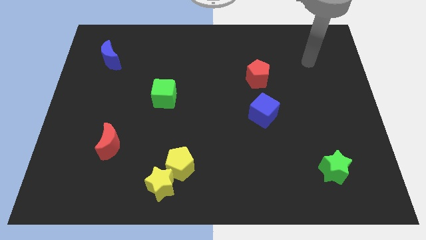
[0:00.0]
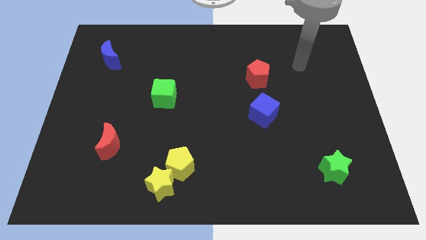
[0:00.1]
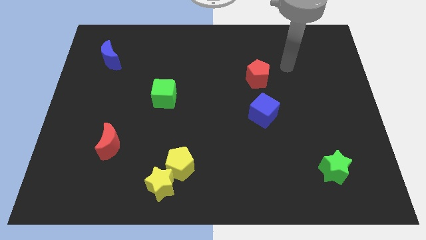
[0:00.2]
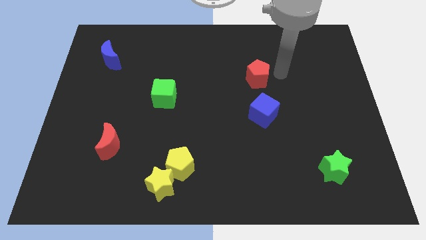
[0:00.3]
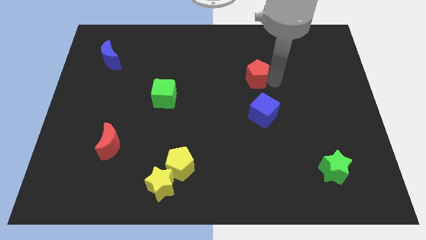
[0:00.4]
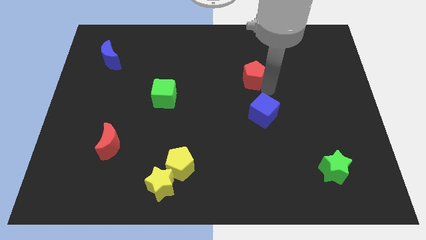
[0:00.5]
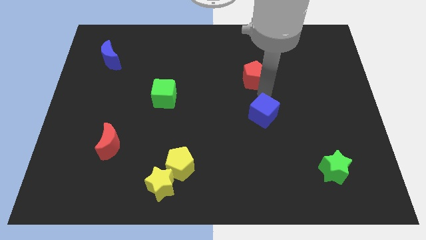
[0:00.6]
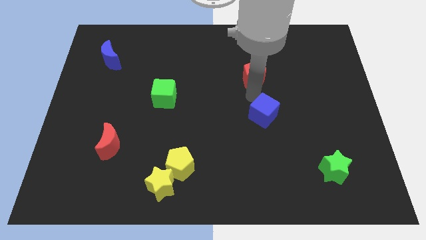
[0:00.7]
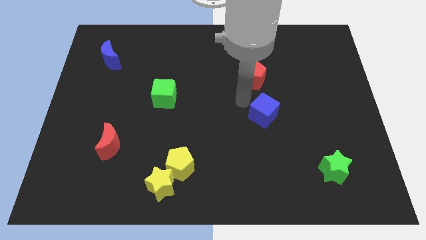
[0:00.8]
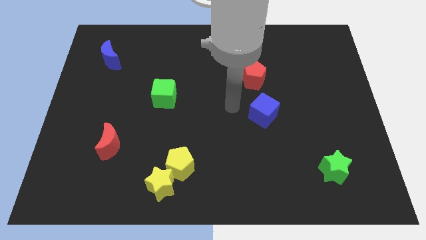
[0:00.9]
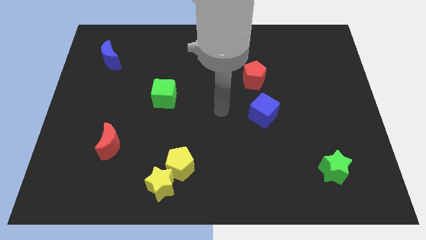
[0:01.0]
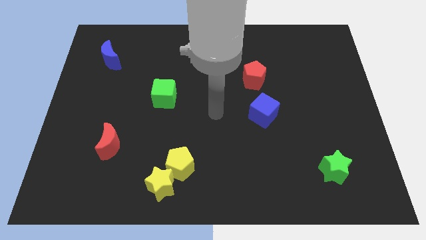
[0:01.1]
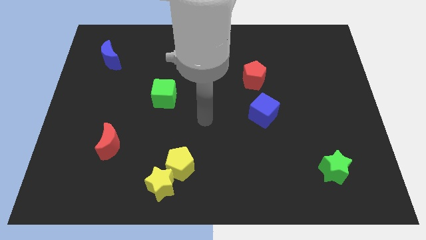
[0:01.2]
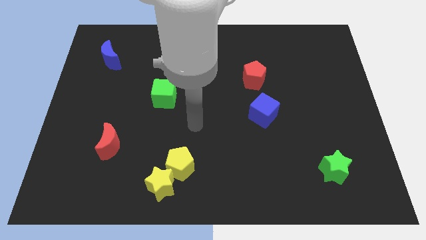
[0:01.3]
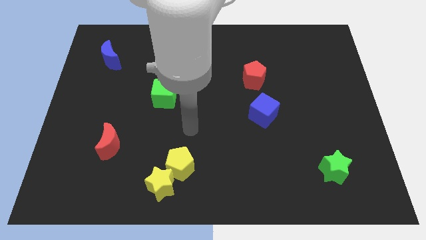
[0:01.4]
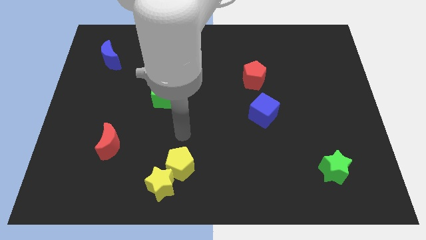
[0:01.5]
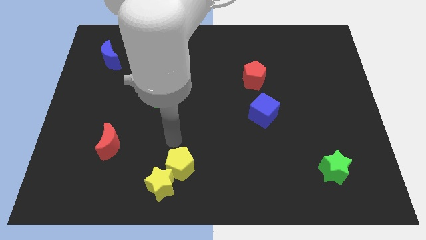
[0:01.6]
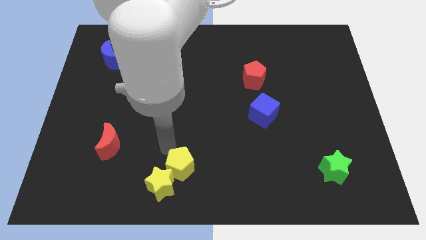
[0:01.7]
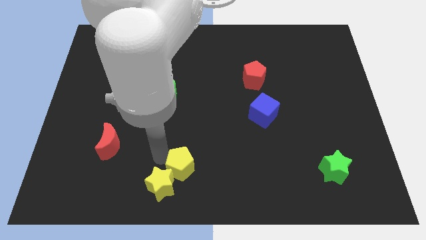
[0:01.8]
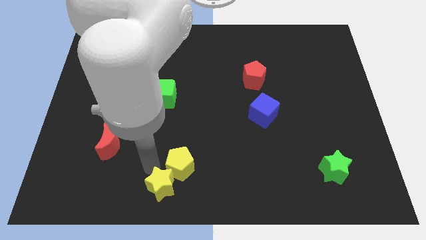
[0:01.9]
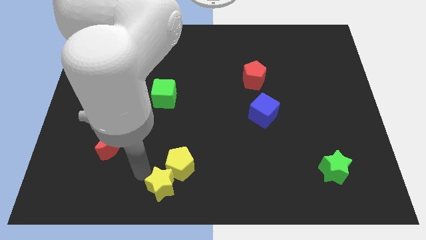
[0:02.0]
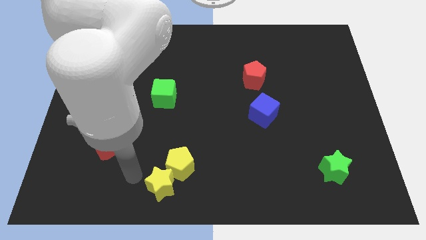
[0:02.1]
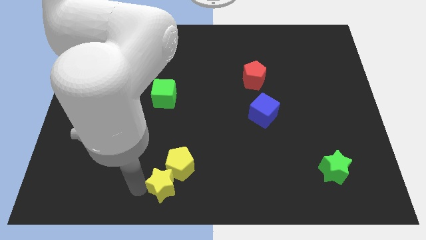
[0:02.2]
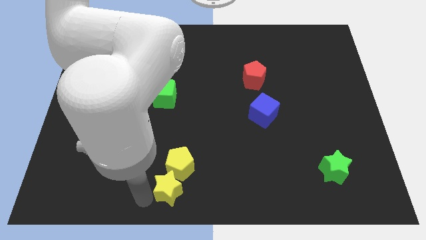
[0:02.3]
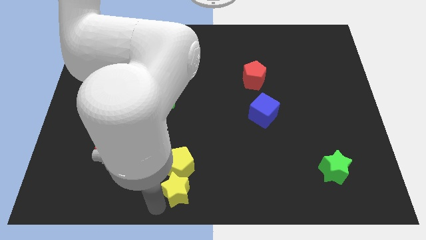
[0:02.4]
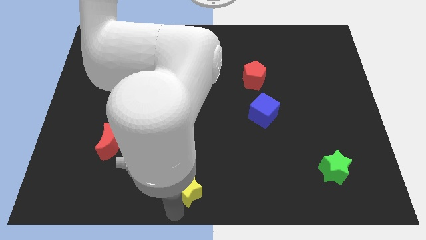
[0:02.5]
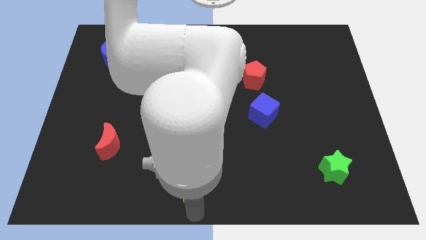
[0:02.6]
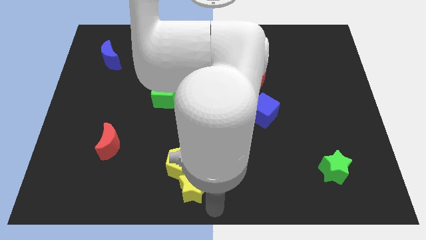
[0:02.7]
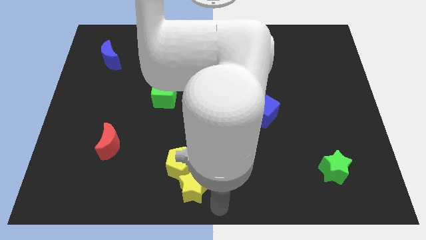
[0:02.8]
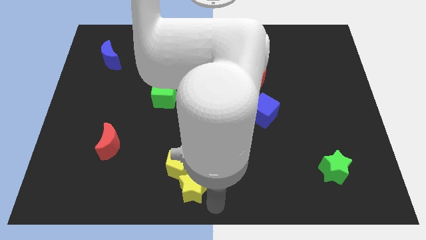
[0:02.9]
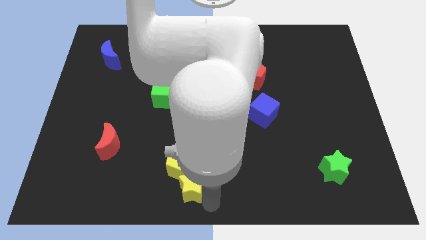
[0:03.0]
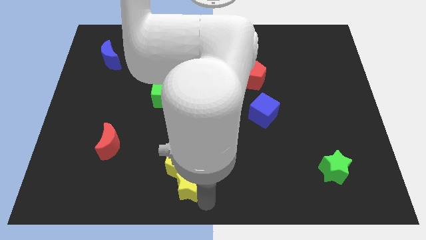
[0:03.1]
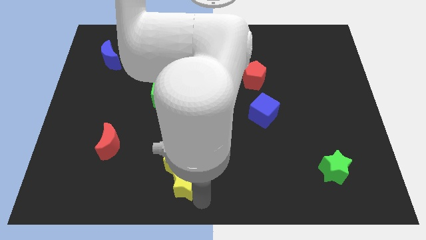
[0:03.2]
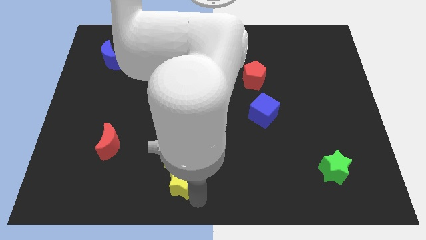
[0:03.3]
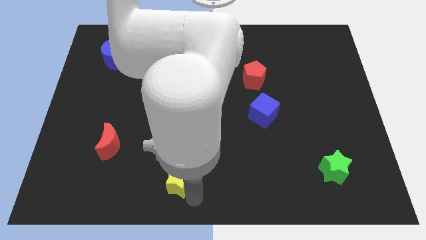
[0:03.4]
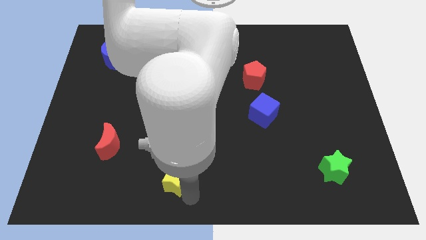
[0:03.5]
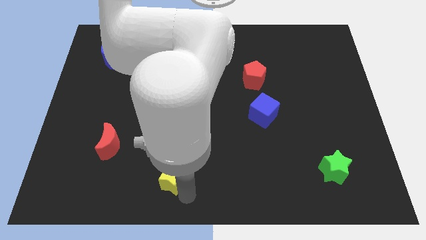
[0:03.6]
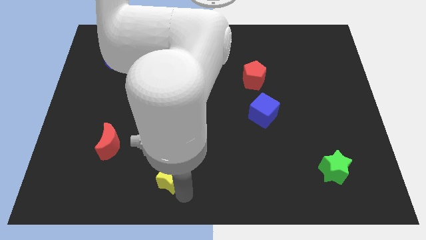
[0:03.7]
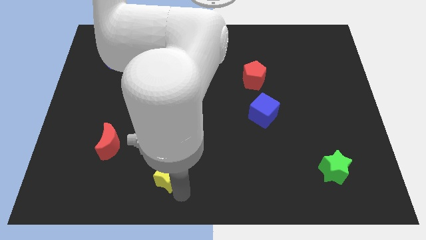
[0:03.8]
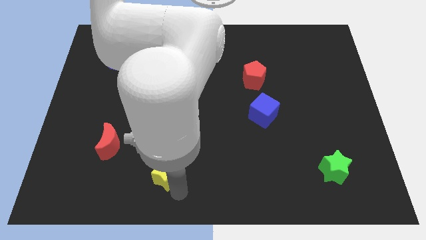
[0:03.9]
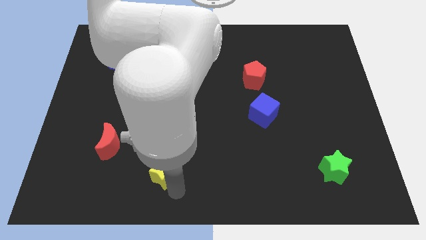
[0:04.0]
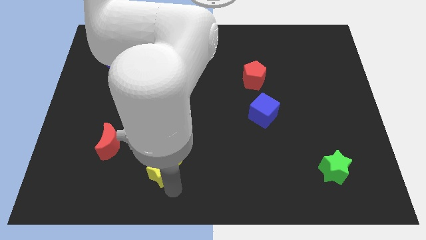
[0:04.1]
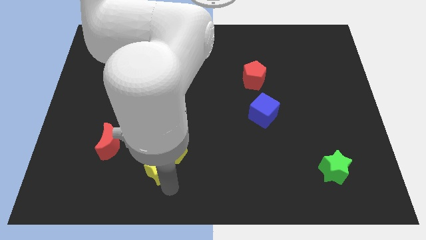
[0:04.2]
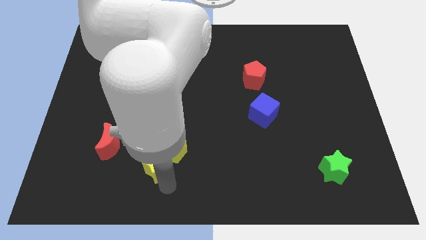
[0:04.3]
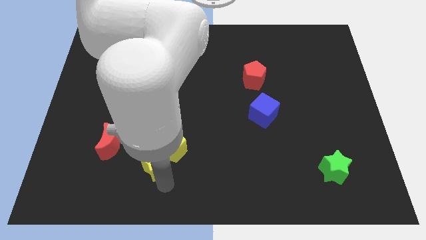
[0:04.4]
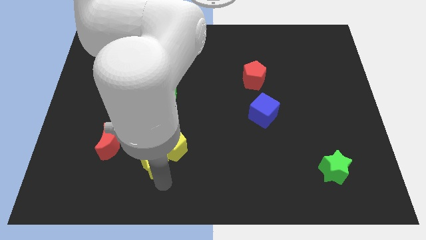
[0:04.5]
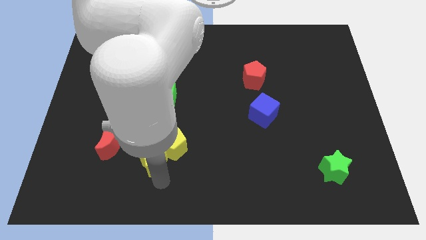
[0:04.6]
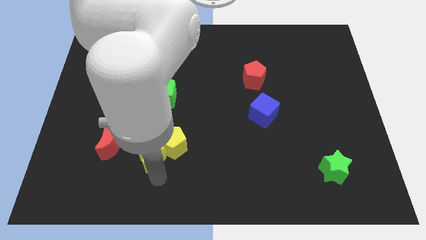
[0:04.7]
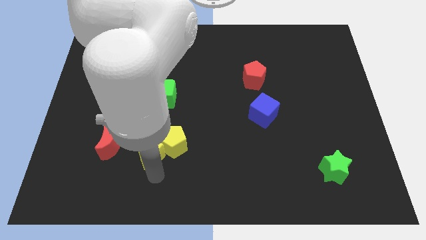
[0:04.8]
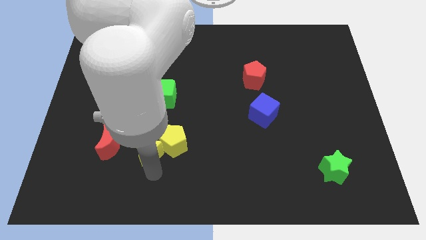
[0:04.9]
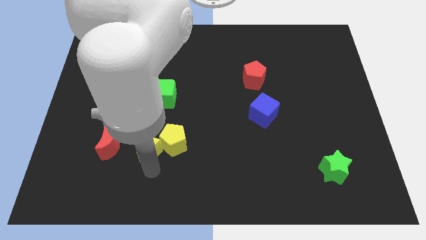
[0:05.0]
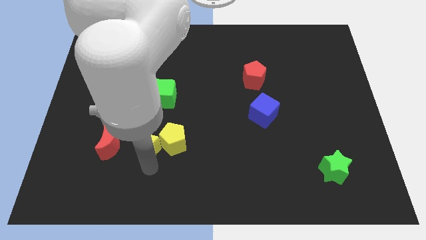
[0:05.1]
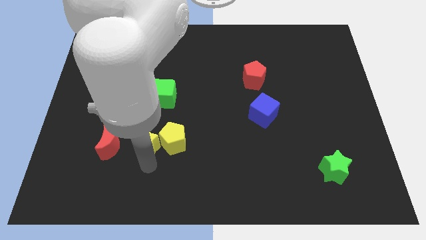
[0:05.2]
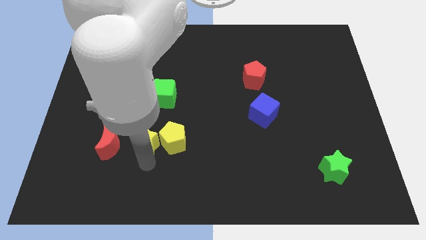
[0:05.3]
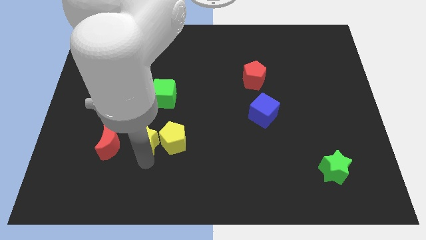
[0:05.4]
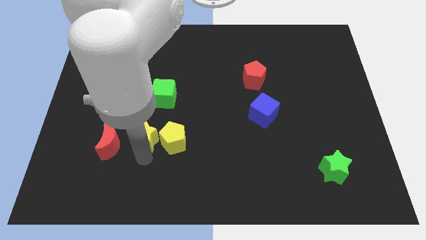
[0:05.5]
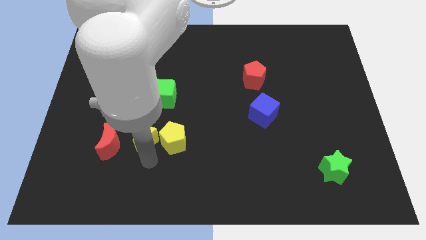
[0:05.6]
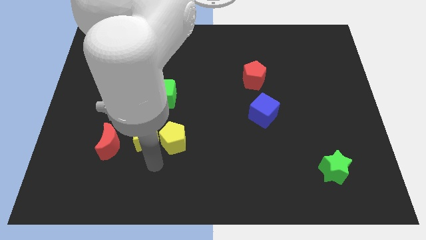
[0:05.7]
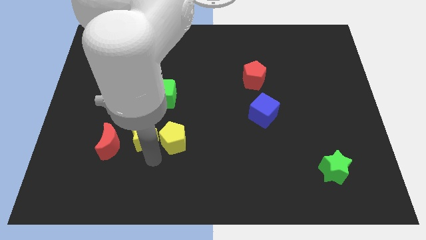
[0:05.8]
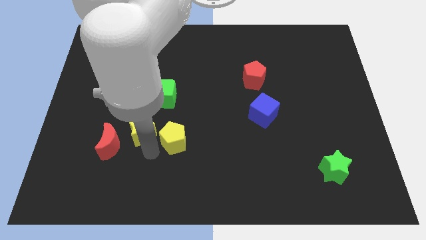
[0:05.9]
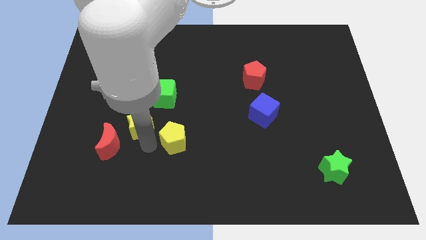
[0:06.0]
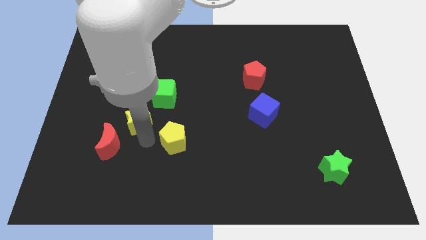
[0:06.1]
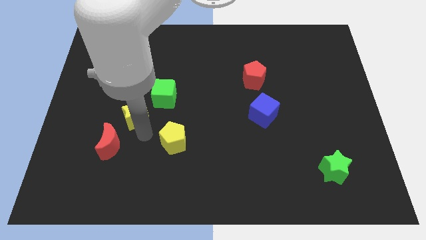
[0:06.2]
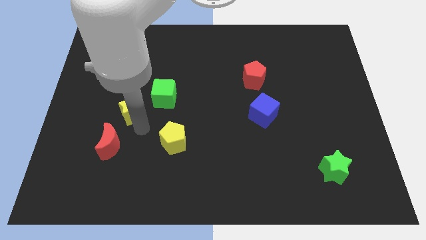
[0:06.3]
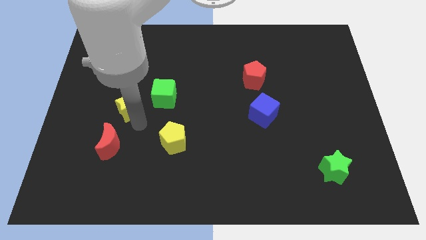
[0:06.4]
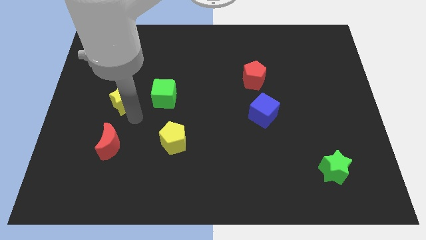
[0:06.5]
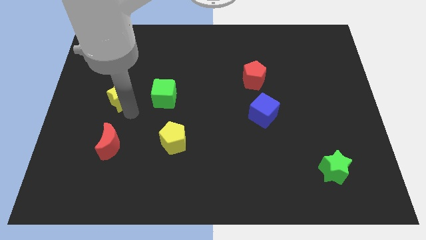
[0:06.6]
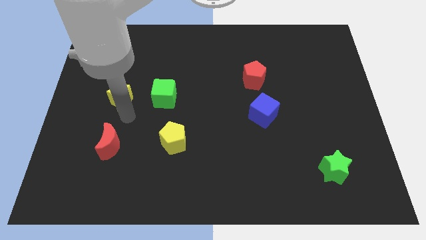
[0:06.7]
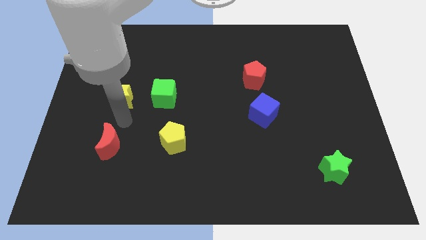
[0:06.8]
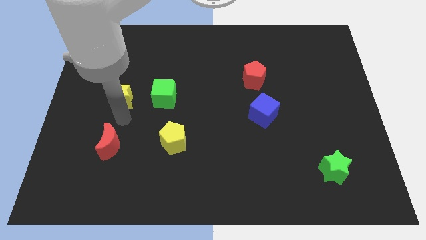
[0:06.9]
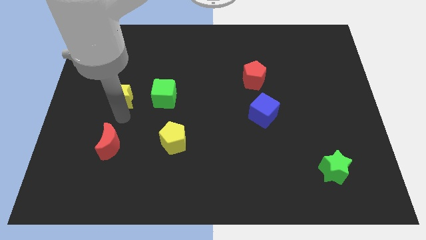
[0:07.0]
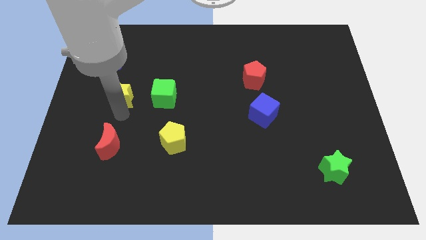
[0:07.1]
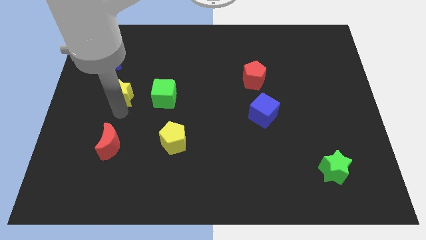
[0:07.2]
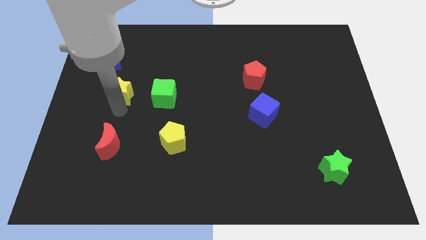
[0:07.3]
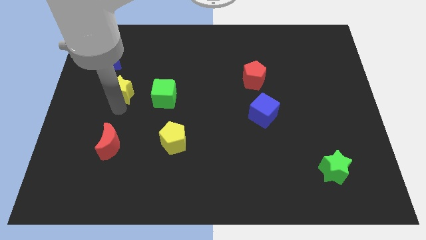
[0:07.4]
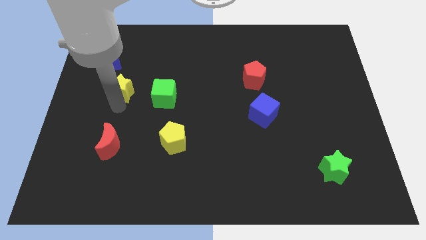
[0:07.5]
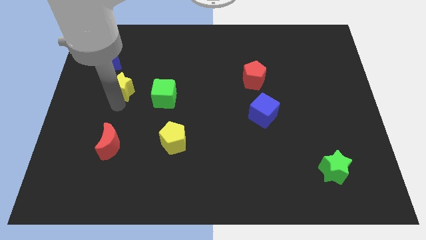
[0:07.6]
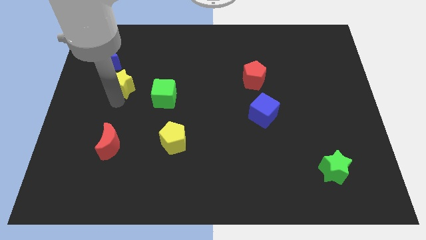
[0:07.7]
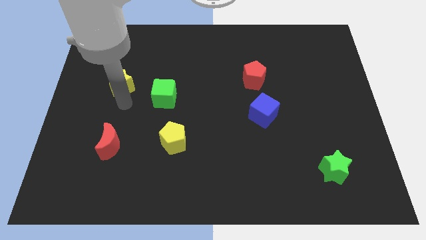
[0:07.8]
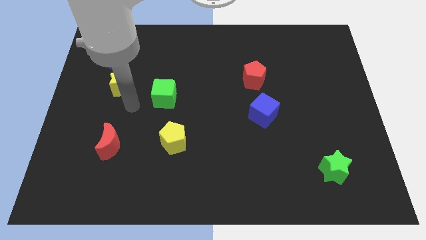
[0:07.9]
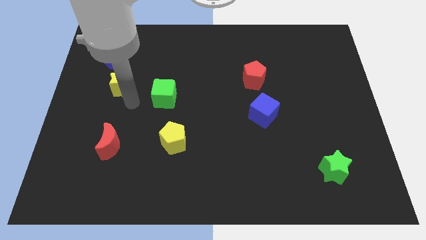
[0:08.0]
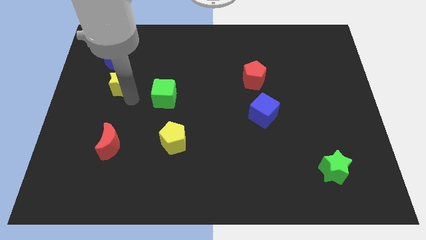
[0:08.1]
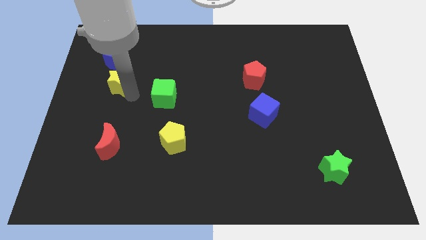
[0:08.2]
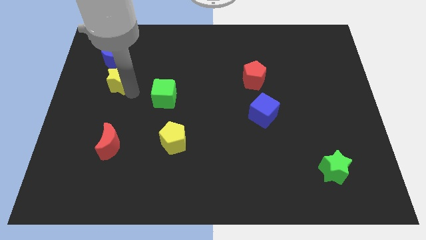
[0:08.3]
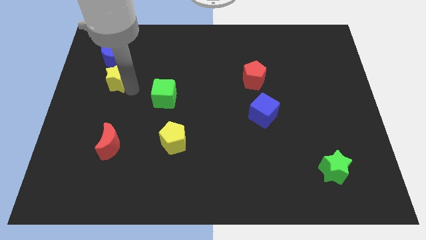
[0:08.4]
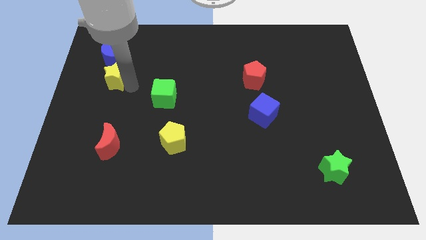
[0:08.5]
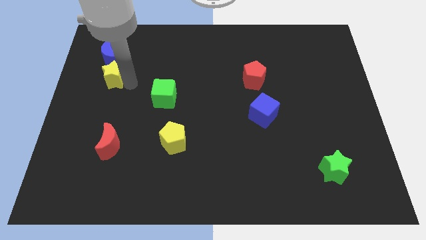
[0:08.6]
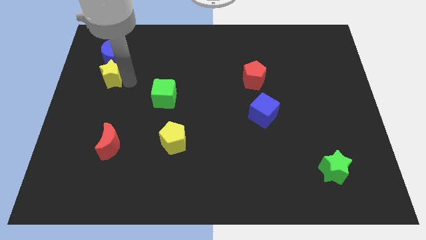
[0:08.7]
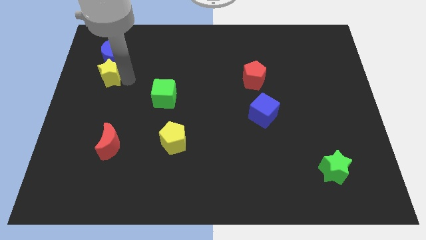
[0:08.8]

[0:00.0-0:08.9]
push the yellow star towards the blue moon
